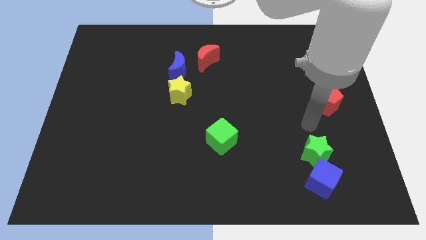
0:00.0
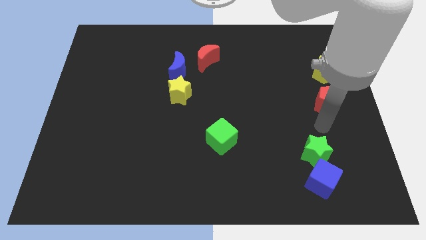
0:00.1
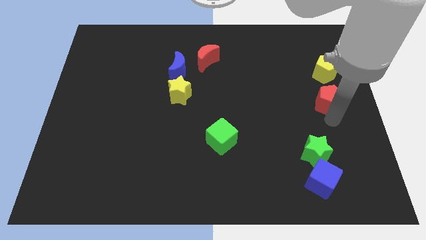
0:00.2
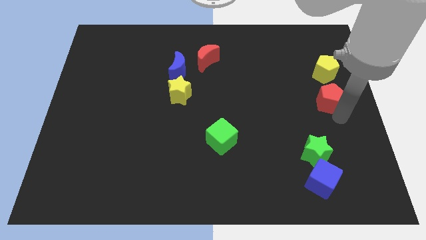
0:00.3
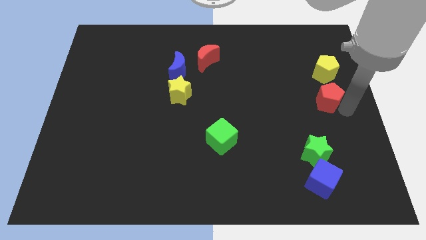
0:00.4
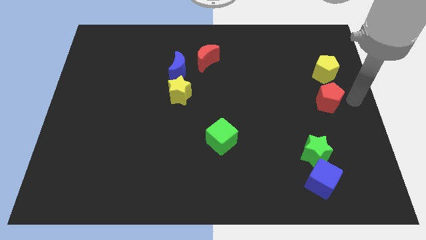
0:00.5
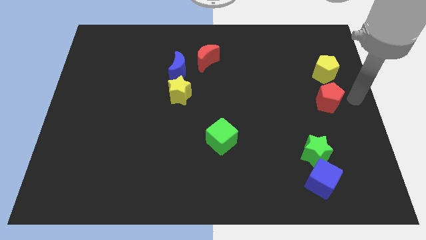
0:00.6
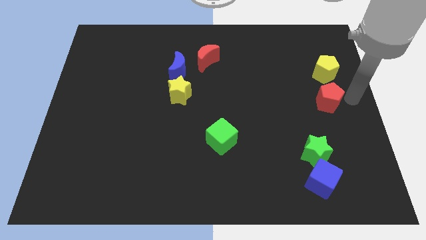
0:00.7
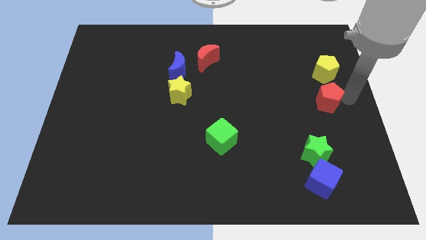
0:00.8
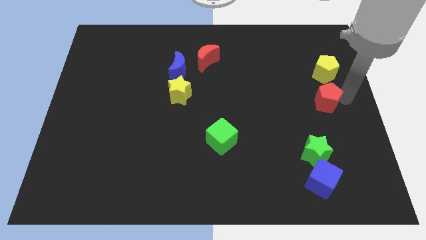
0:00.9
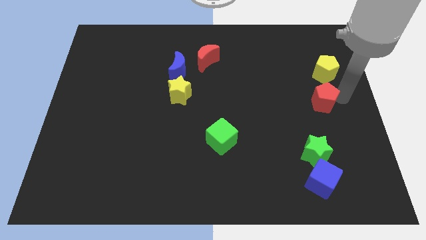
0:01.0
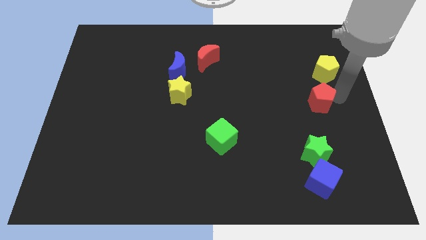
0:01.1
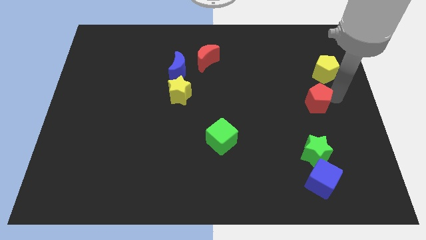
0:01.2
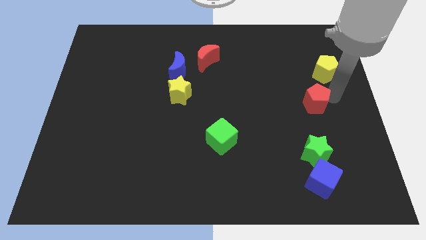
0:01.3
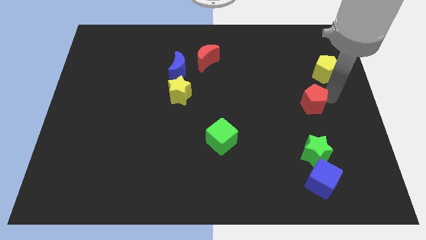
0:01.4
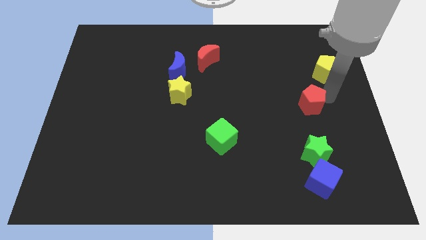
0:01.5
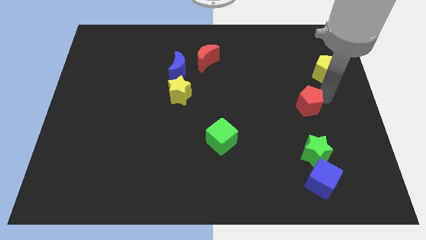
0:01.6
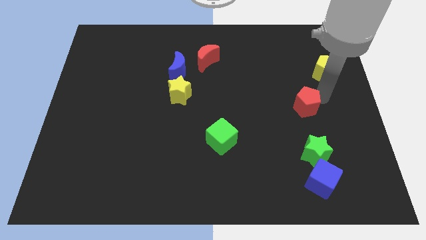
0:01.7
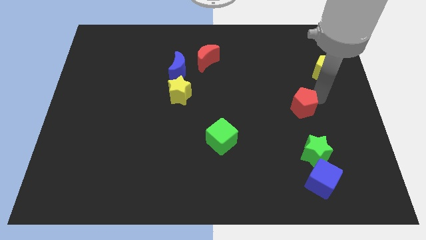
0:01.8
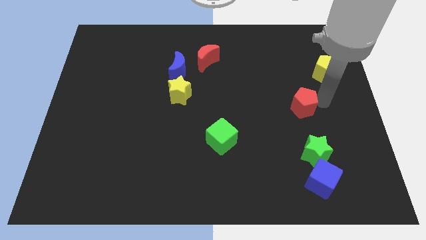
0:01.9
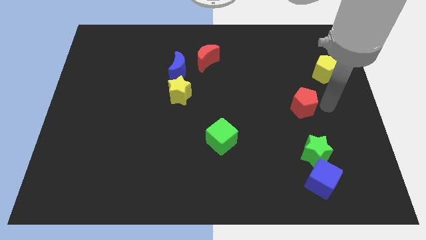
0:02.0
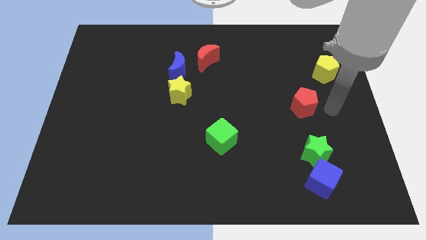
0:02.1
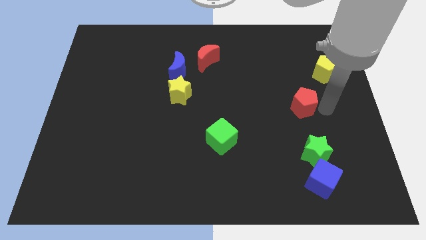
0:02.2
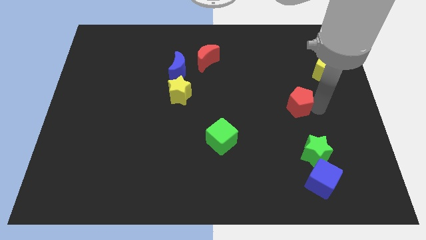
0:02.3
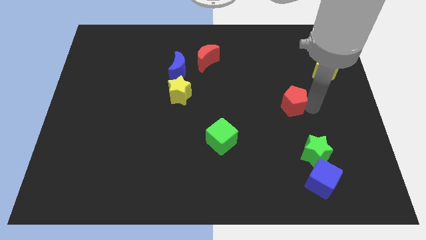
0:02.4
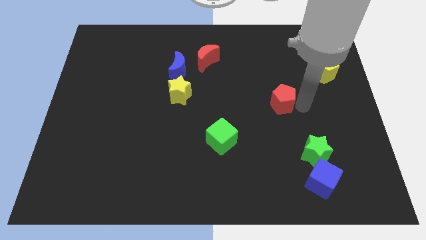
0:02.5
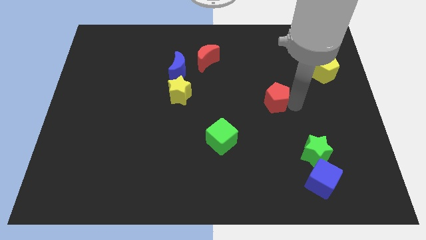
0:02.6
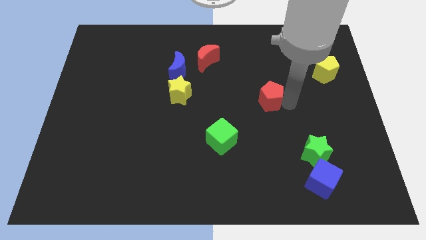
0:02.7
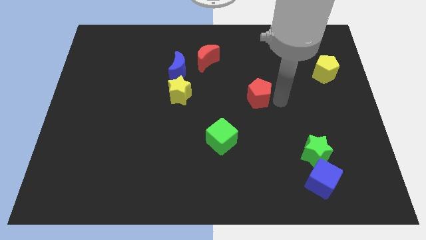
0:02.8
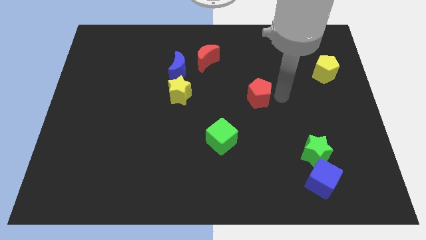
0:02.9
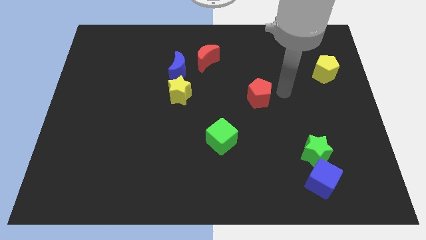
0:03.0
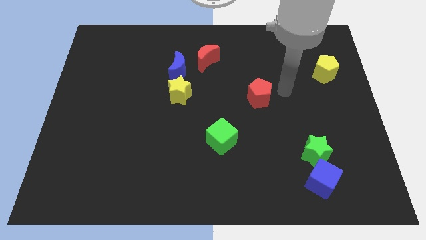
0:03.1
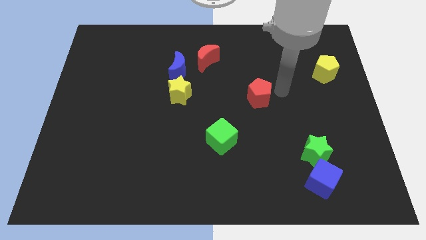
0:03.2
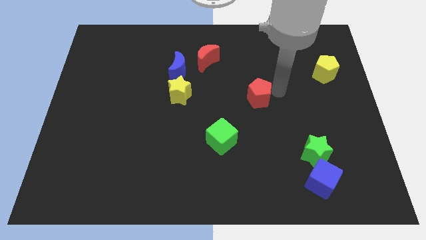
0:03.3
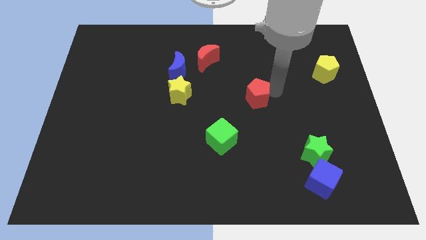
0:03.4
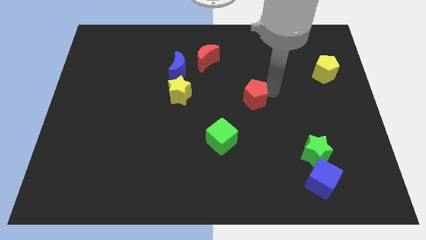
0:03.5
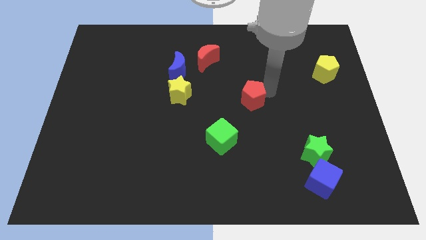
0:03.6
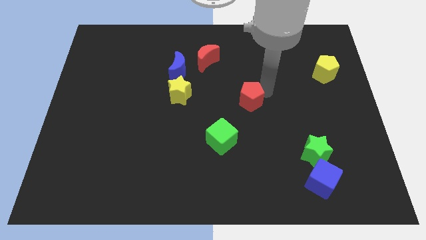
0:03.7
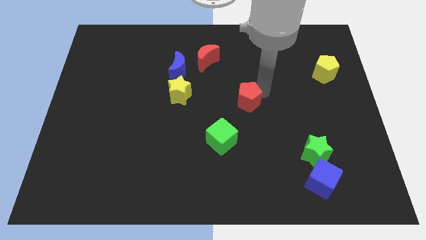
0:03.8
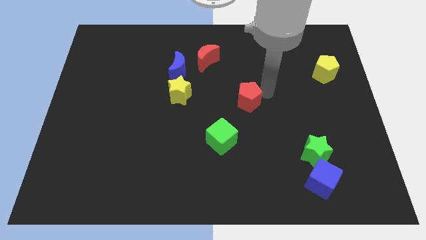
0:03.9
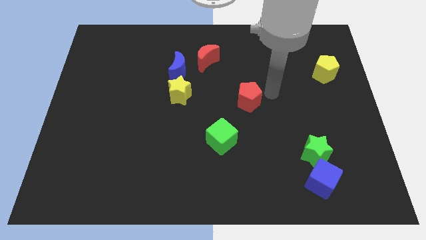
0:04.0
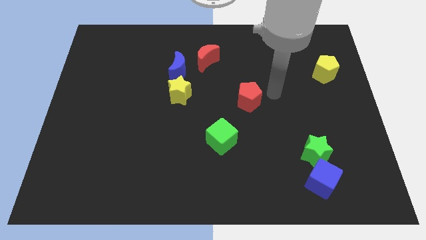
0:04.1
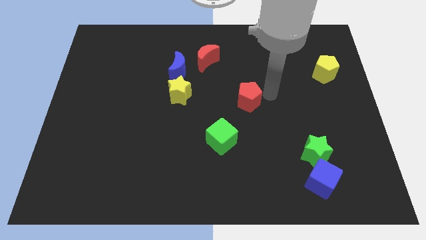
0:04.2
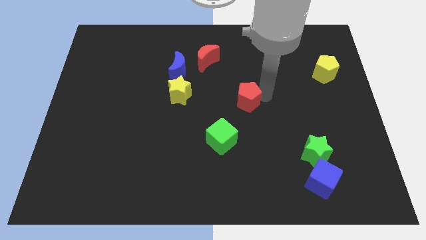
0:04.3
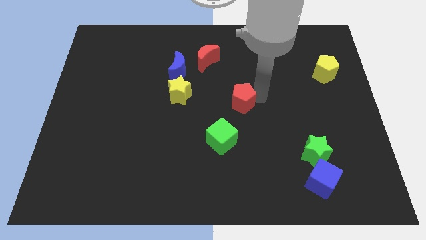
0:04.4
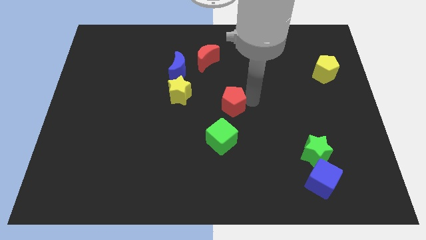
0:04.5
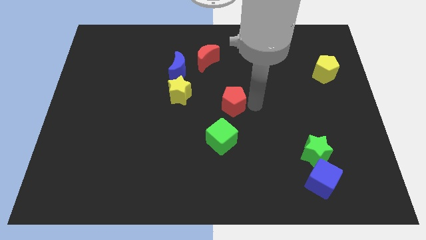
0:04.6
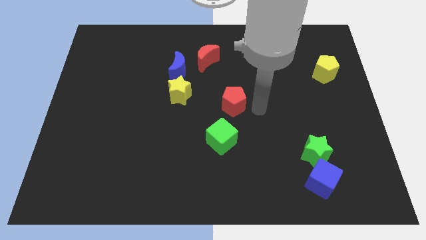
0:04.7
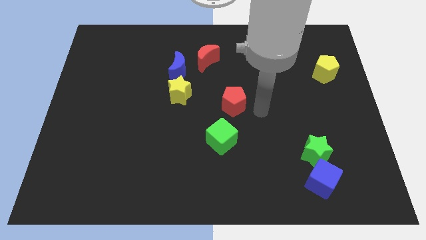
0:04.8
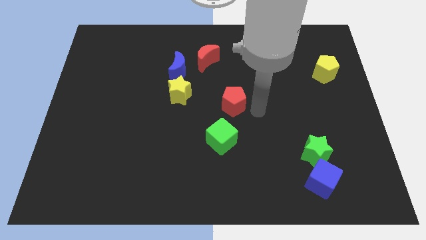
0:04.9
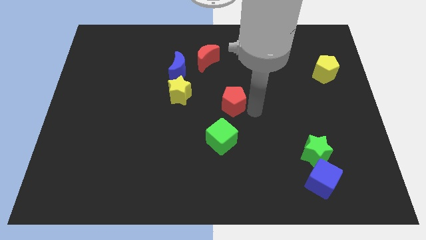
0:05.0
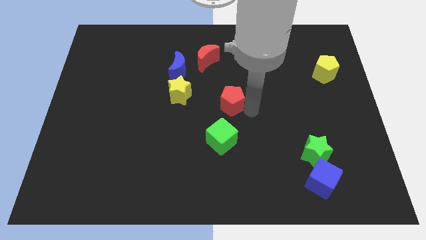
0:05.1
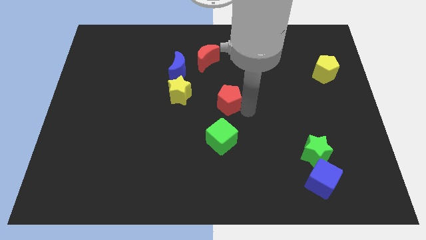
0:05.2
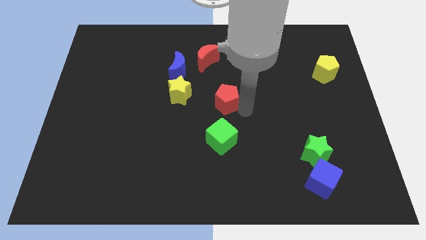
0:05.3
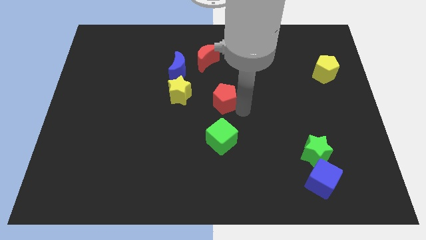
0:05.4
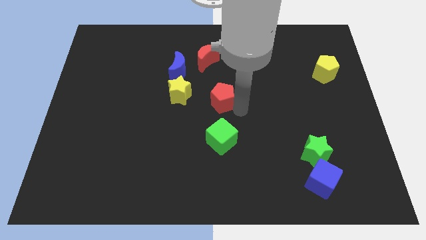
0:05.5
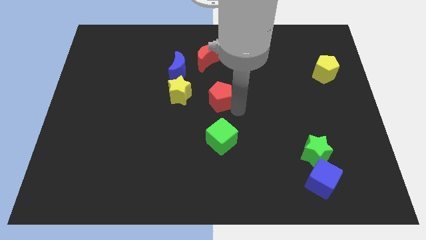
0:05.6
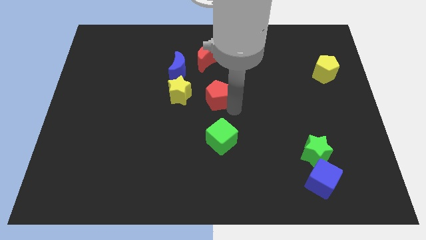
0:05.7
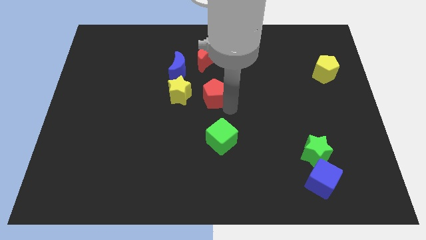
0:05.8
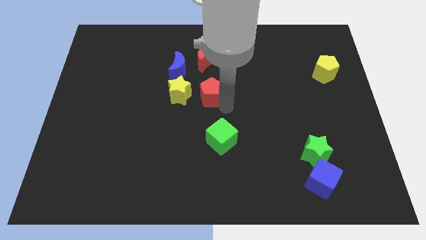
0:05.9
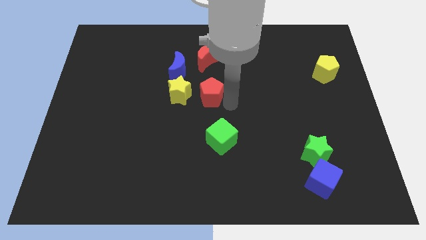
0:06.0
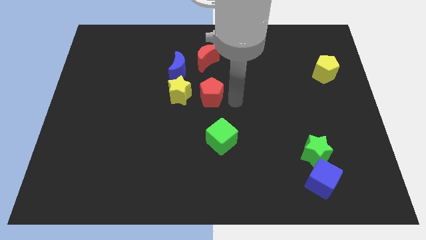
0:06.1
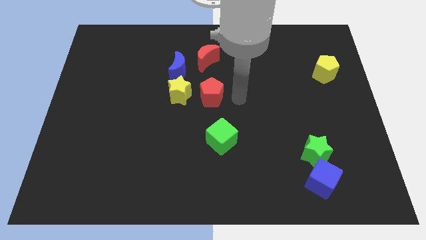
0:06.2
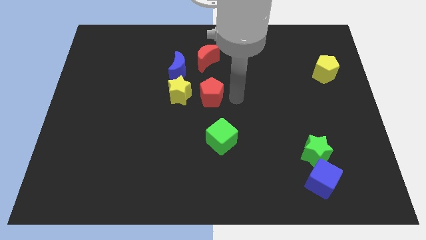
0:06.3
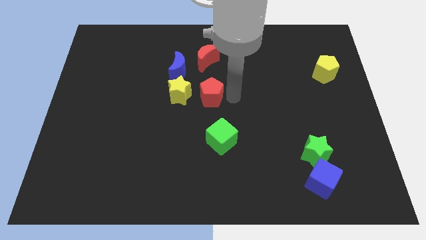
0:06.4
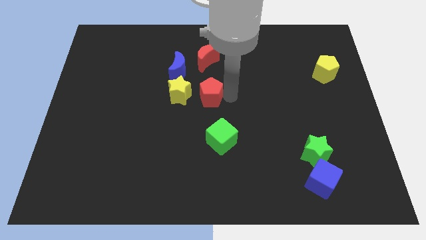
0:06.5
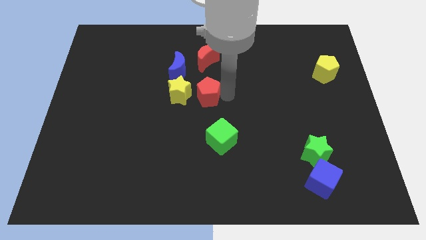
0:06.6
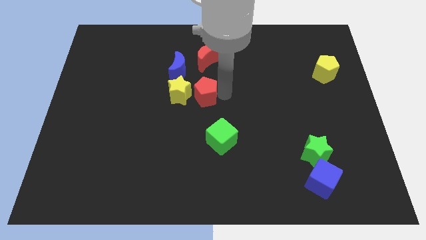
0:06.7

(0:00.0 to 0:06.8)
push the red pentagon next to the yellow star

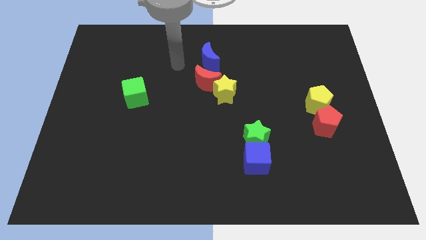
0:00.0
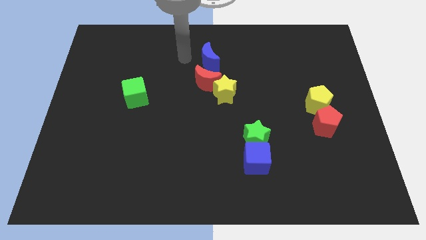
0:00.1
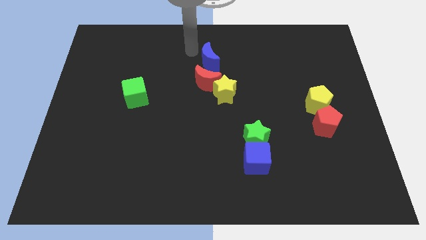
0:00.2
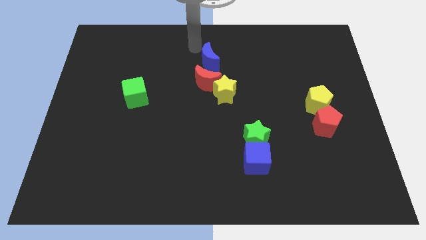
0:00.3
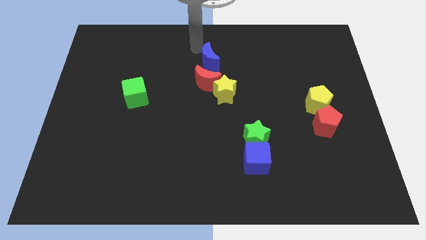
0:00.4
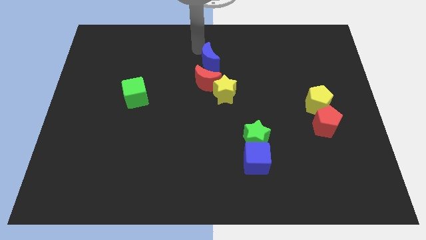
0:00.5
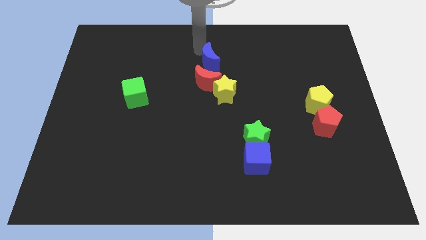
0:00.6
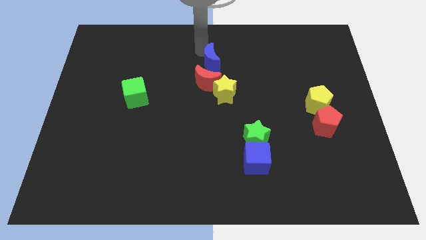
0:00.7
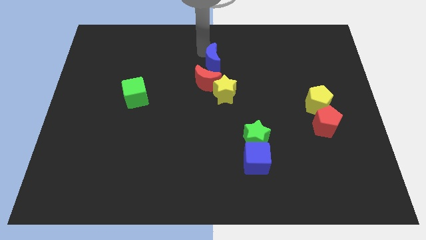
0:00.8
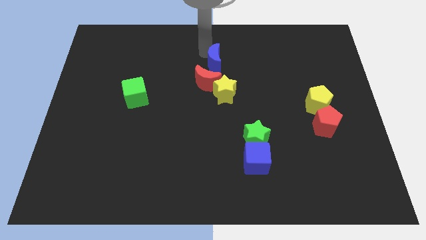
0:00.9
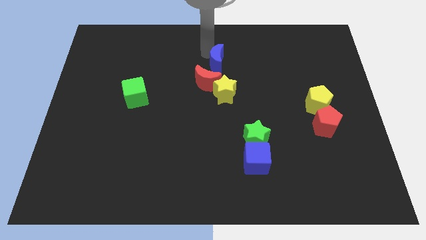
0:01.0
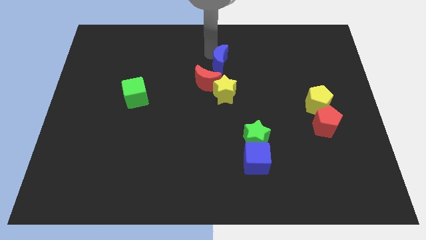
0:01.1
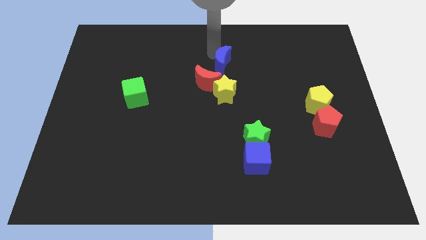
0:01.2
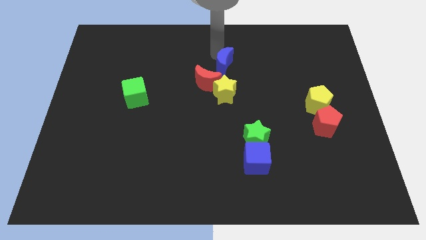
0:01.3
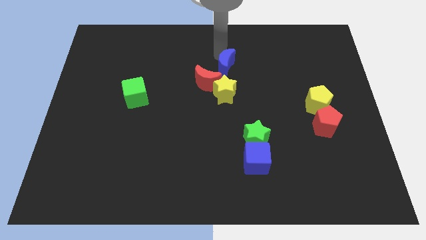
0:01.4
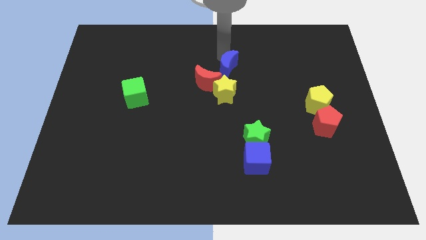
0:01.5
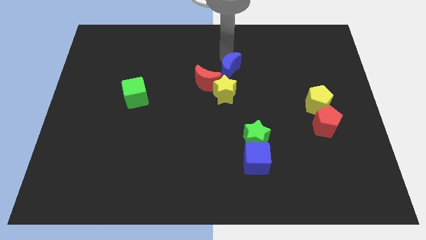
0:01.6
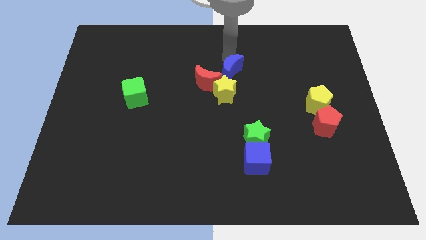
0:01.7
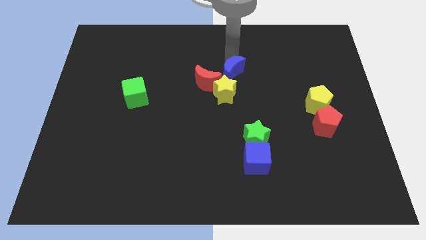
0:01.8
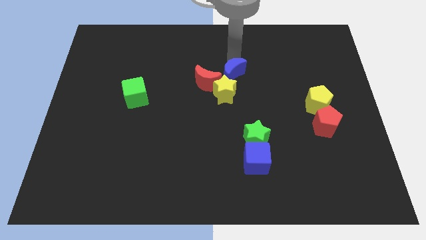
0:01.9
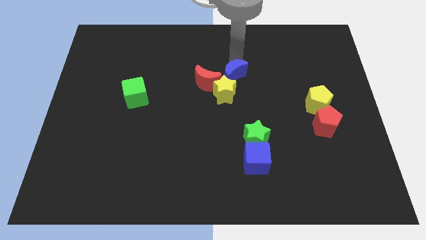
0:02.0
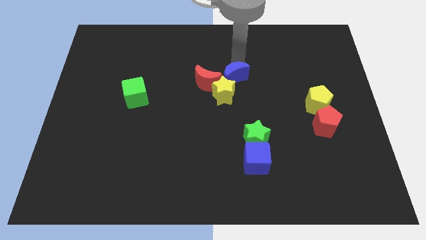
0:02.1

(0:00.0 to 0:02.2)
move the blue moon to the yellow star
